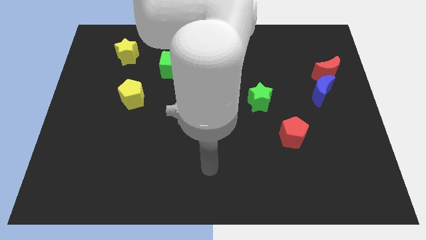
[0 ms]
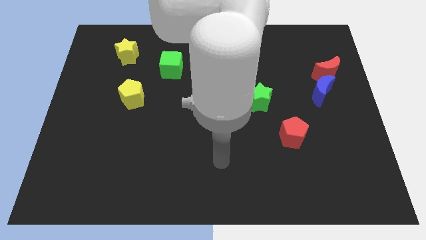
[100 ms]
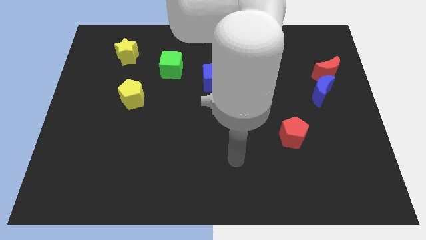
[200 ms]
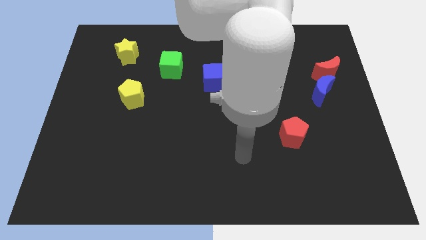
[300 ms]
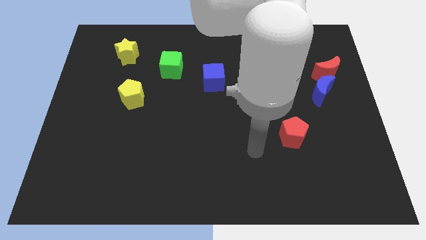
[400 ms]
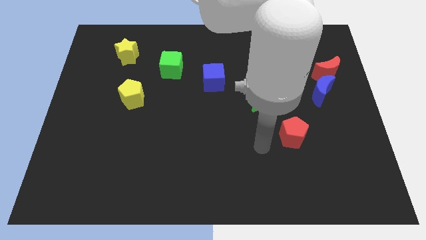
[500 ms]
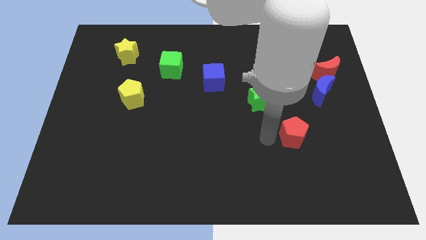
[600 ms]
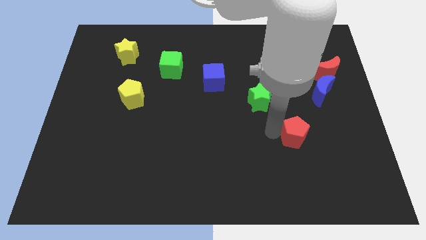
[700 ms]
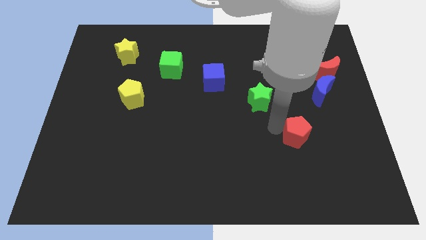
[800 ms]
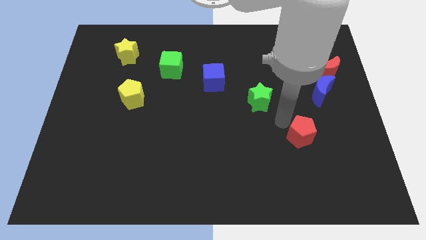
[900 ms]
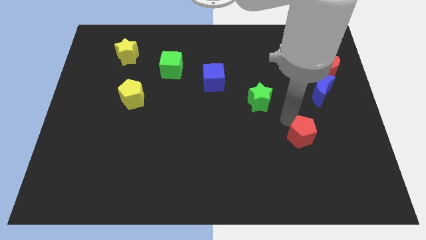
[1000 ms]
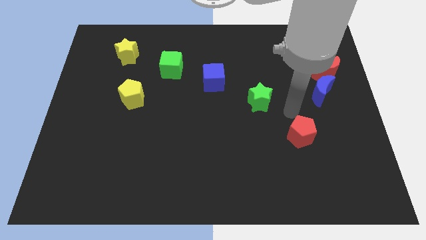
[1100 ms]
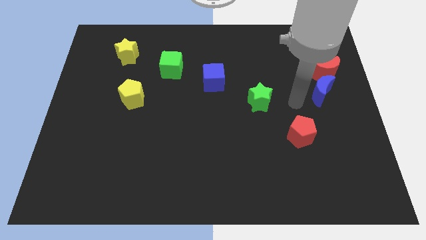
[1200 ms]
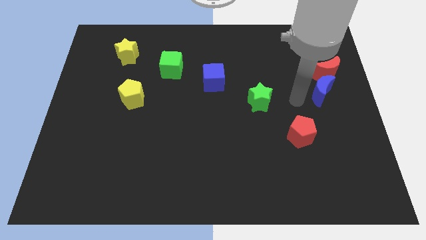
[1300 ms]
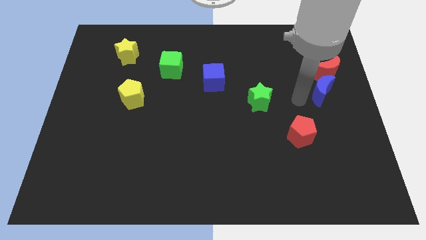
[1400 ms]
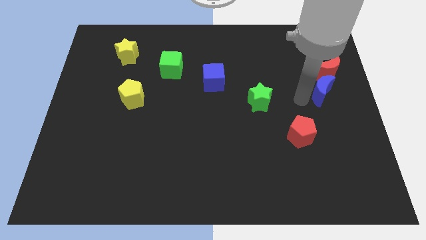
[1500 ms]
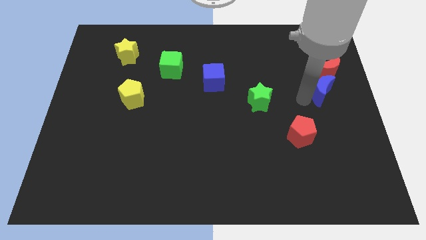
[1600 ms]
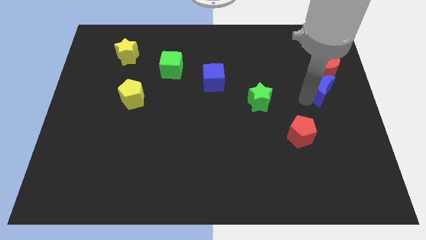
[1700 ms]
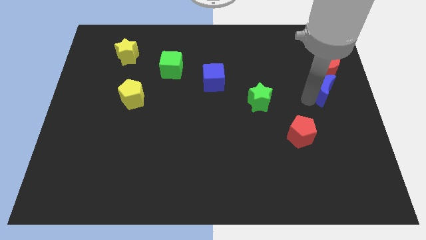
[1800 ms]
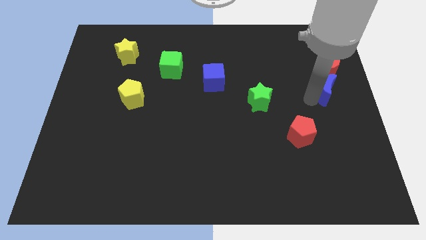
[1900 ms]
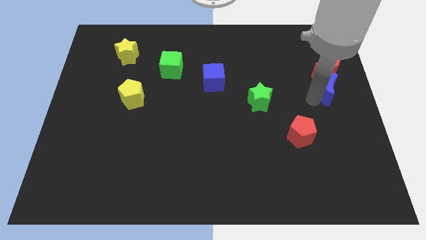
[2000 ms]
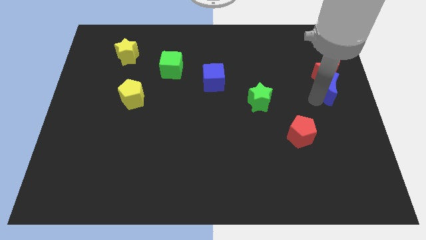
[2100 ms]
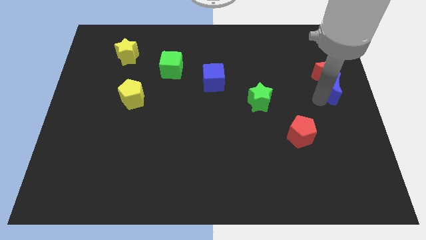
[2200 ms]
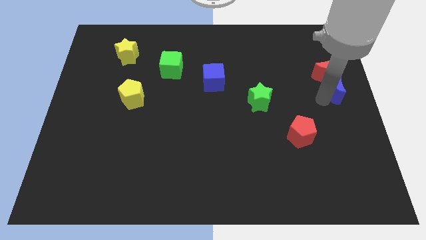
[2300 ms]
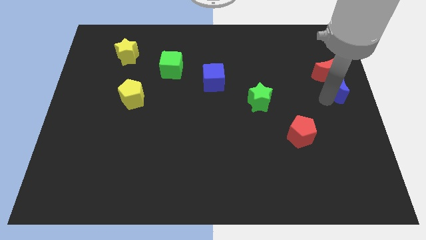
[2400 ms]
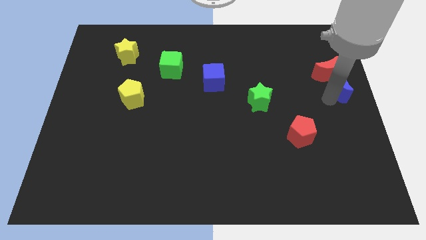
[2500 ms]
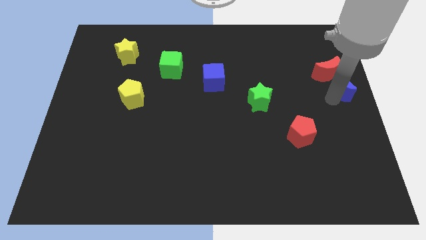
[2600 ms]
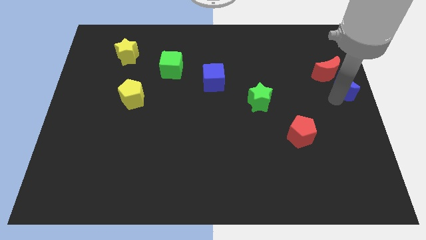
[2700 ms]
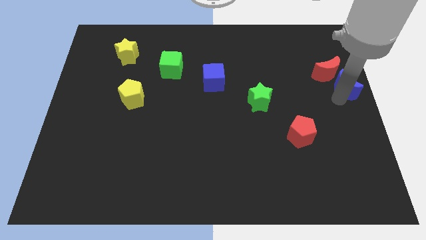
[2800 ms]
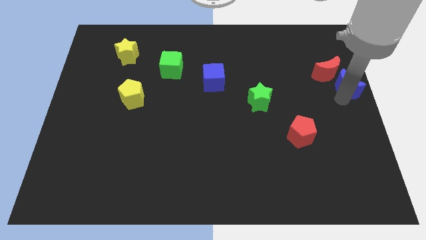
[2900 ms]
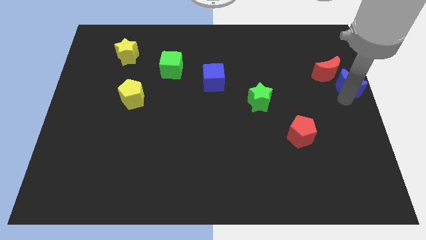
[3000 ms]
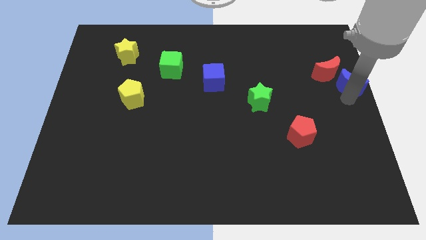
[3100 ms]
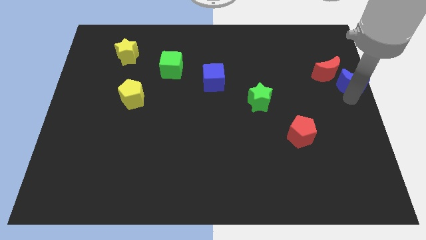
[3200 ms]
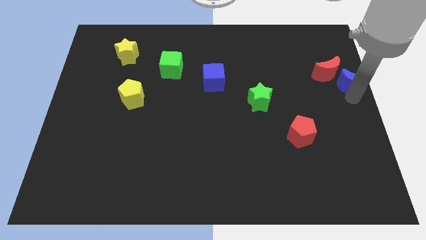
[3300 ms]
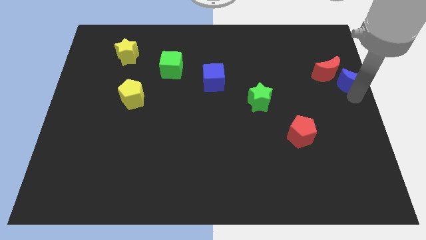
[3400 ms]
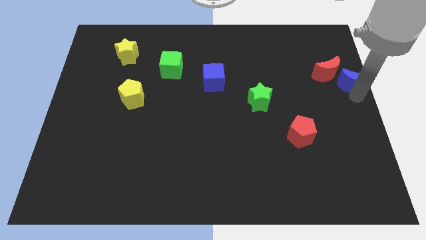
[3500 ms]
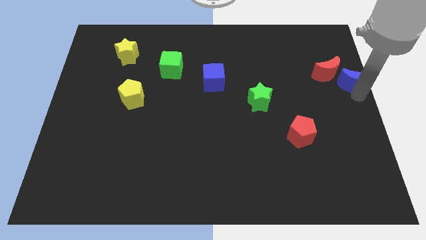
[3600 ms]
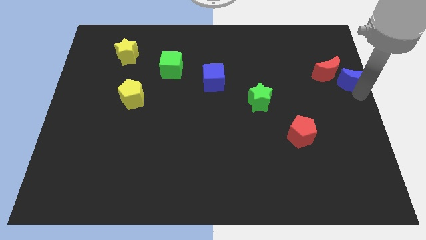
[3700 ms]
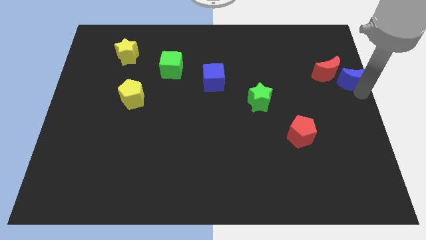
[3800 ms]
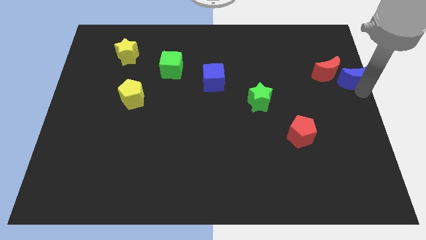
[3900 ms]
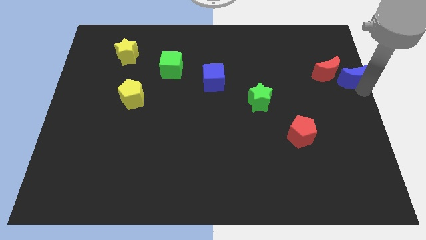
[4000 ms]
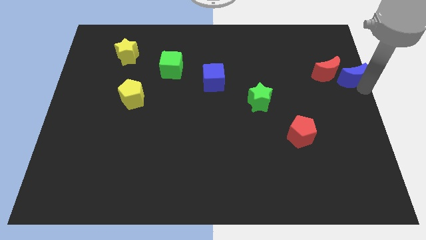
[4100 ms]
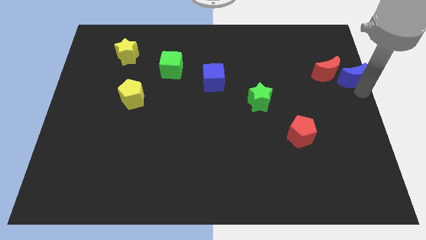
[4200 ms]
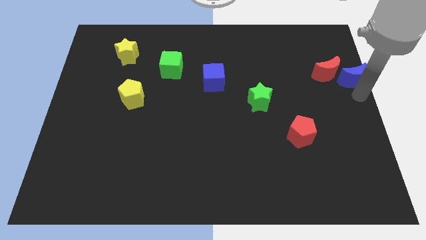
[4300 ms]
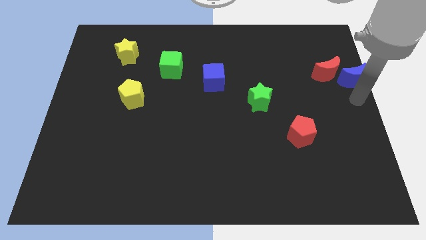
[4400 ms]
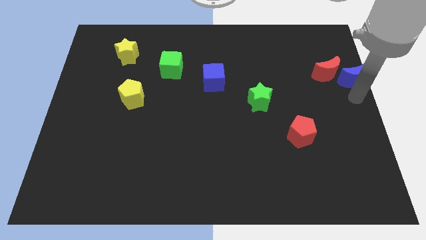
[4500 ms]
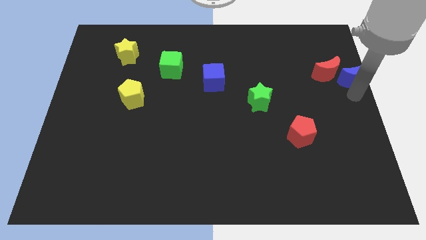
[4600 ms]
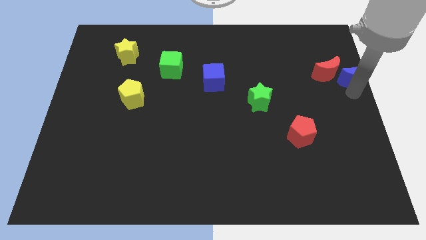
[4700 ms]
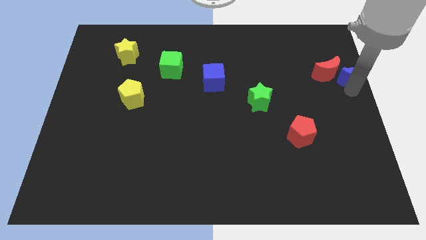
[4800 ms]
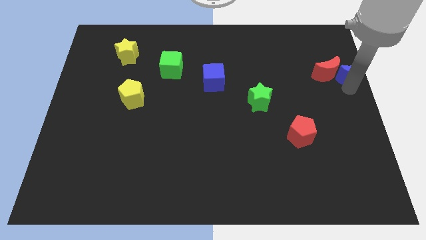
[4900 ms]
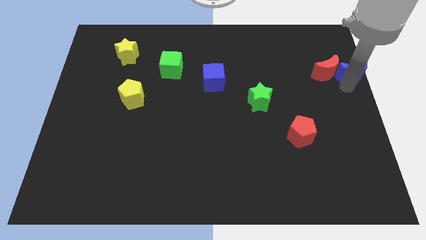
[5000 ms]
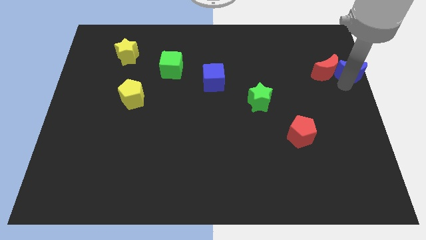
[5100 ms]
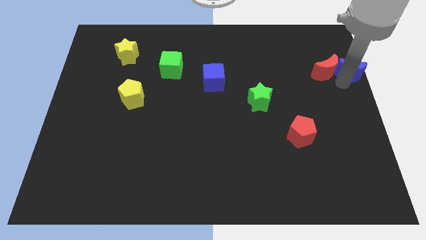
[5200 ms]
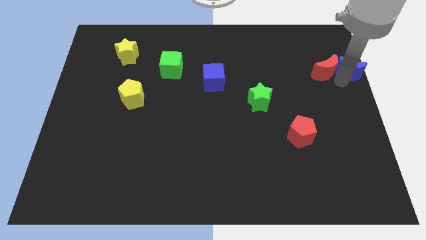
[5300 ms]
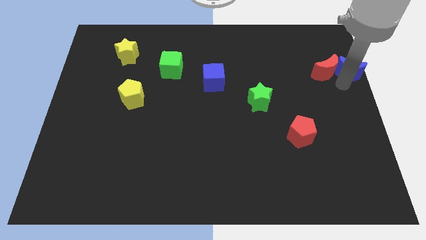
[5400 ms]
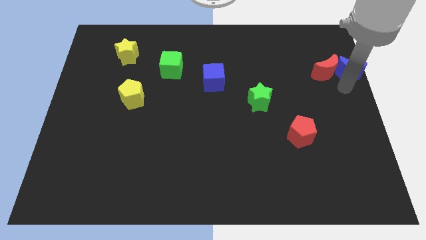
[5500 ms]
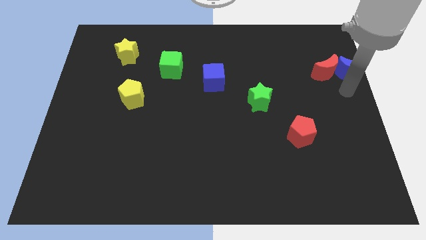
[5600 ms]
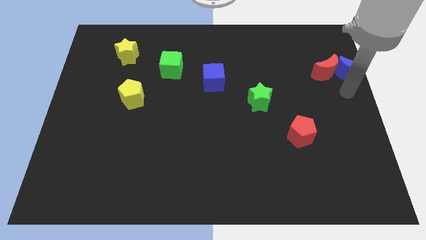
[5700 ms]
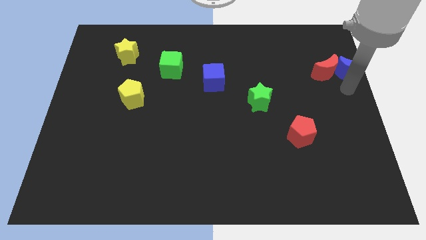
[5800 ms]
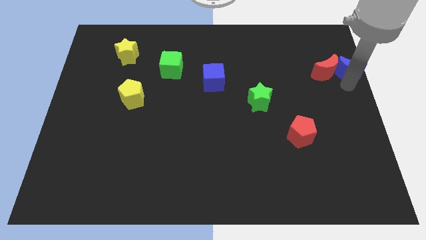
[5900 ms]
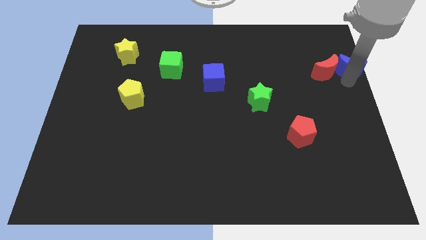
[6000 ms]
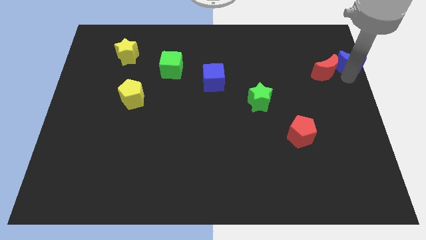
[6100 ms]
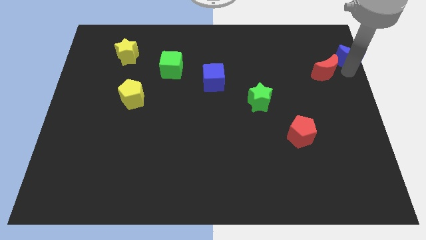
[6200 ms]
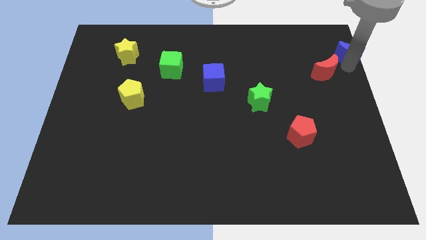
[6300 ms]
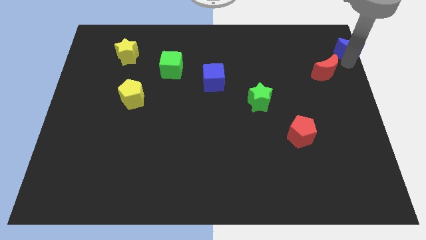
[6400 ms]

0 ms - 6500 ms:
slide the blue moon to the top right corner

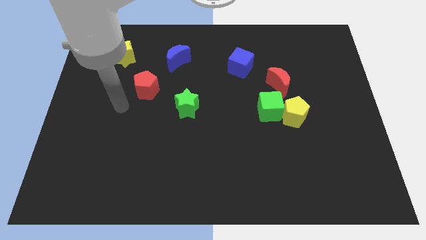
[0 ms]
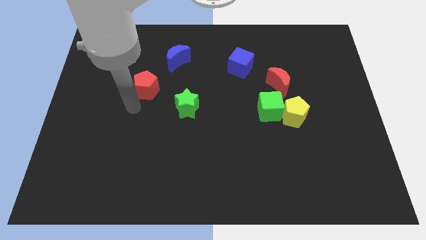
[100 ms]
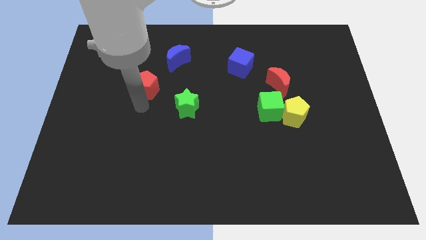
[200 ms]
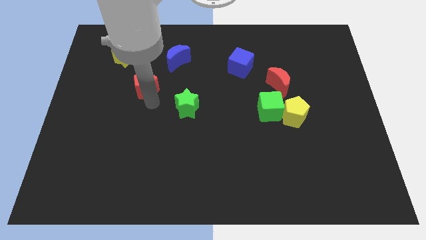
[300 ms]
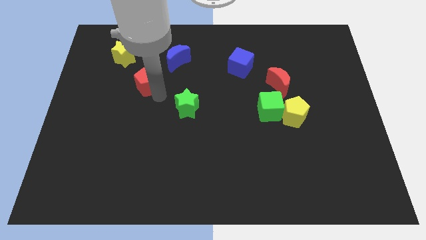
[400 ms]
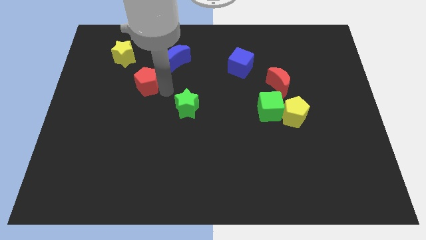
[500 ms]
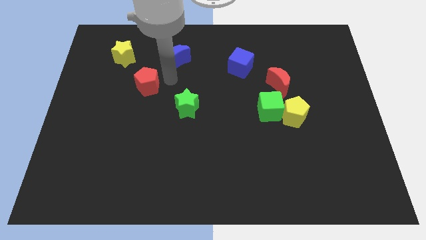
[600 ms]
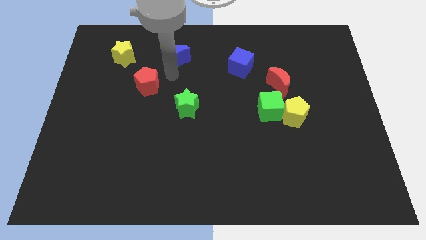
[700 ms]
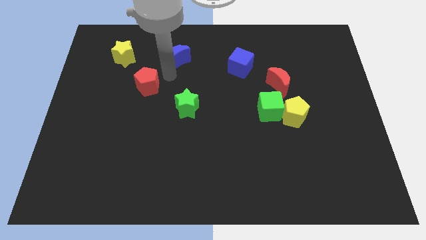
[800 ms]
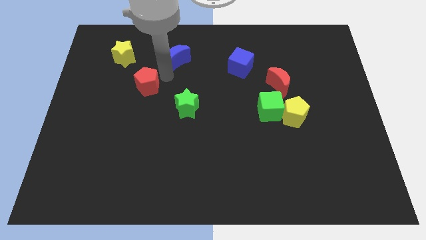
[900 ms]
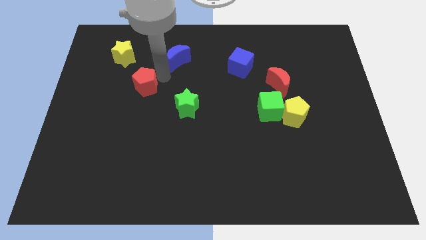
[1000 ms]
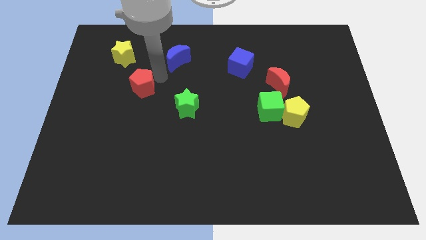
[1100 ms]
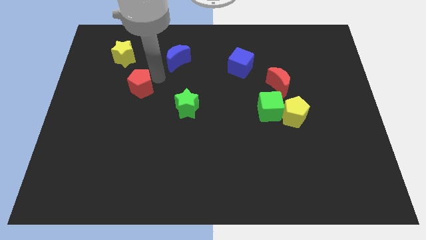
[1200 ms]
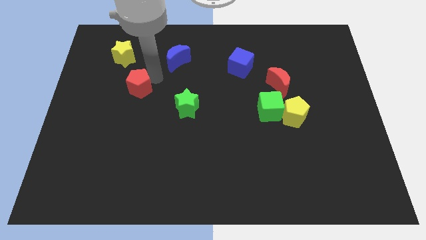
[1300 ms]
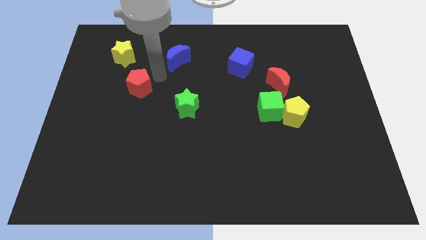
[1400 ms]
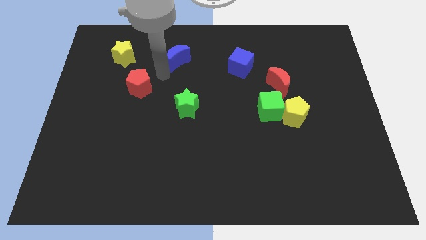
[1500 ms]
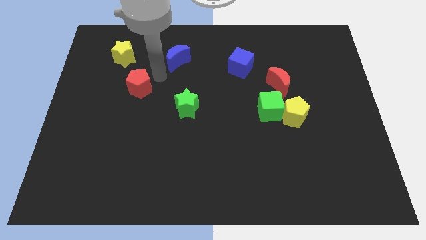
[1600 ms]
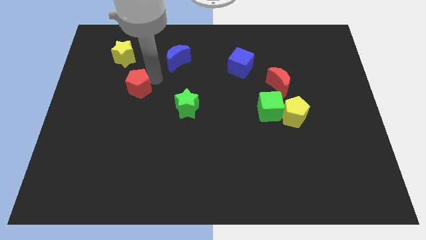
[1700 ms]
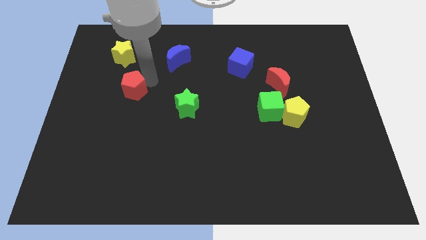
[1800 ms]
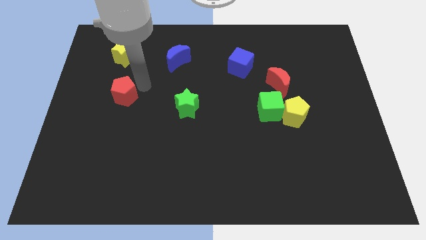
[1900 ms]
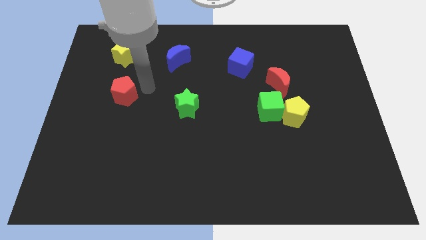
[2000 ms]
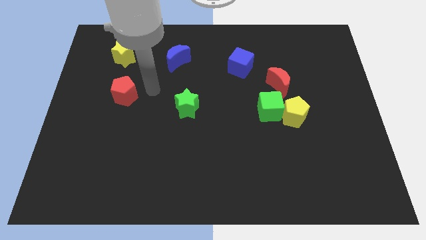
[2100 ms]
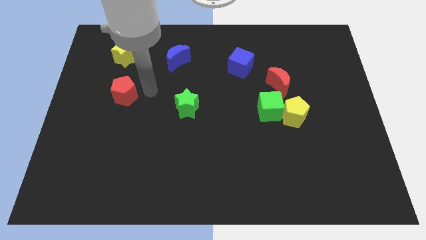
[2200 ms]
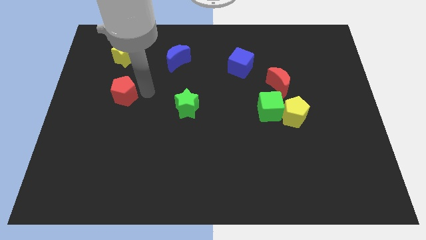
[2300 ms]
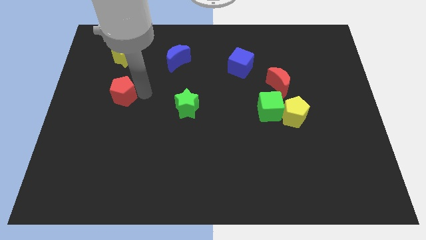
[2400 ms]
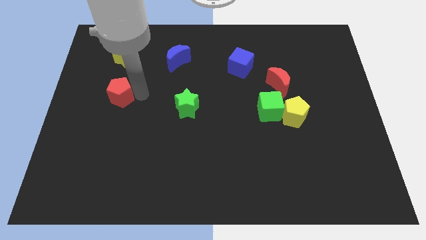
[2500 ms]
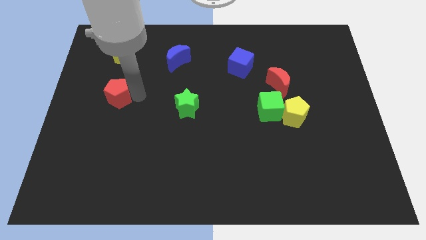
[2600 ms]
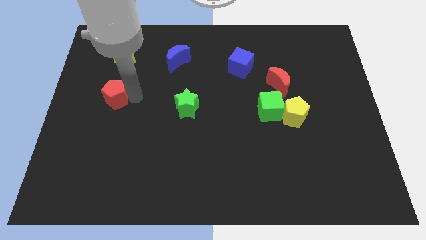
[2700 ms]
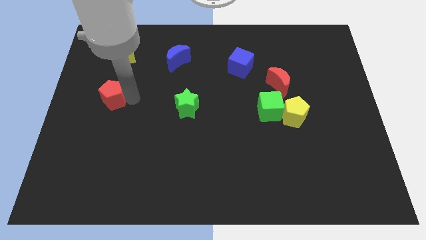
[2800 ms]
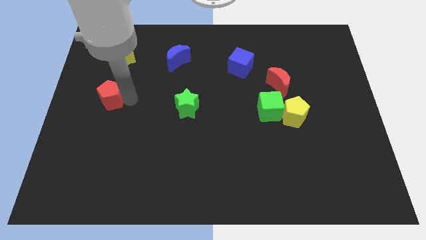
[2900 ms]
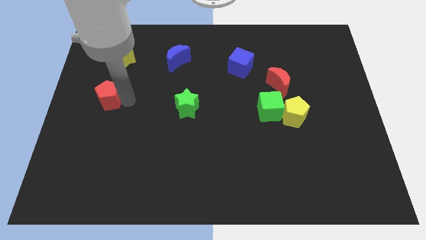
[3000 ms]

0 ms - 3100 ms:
move the red pentagon to the left side
